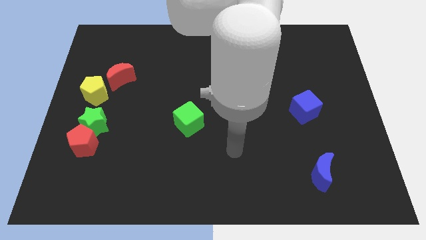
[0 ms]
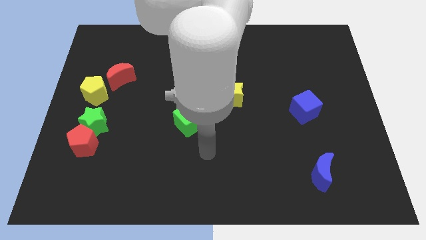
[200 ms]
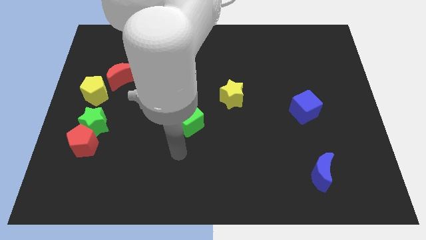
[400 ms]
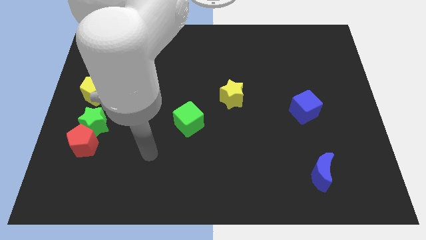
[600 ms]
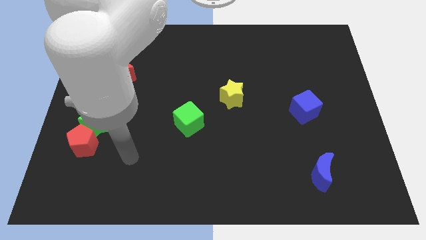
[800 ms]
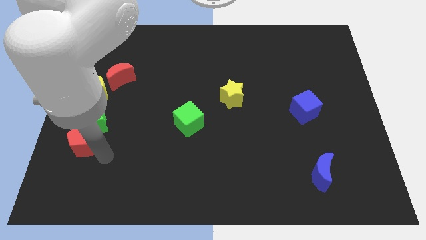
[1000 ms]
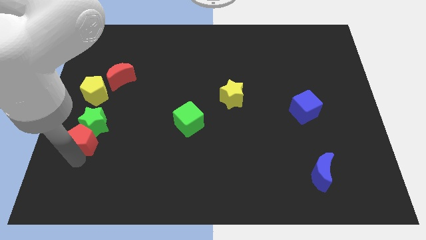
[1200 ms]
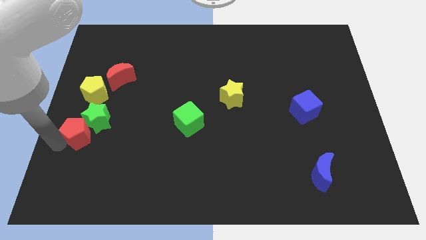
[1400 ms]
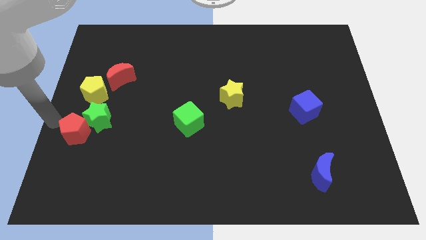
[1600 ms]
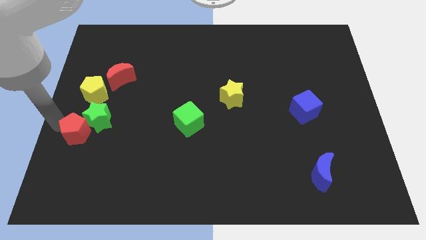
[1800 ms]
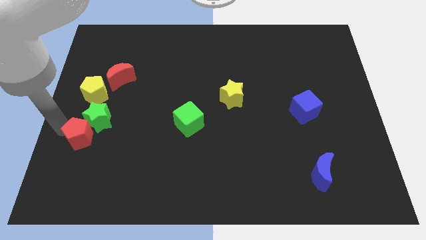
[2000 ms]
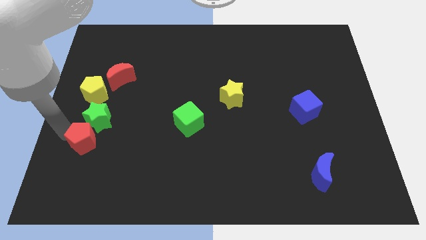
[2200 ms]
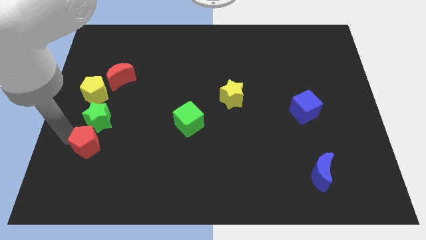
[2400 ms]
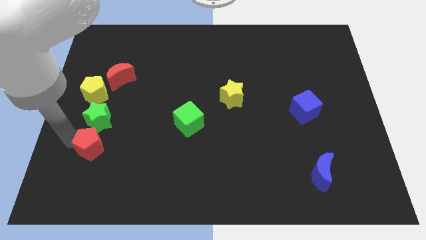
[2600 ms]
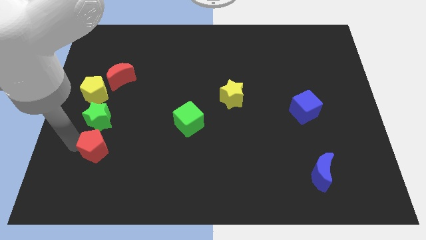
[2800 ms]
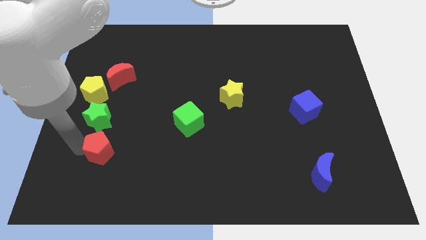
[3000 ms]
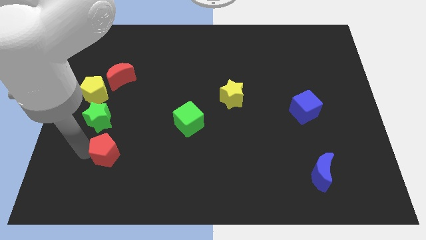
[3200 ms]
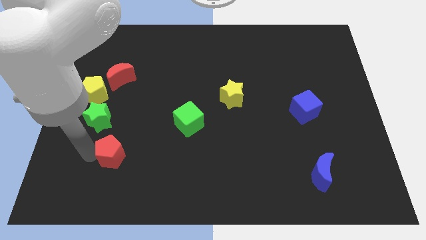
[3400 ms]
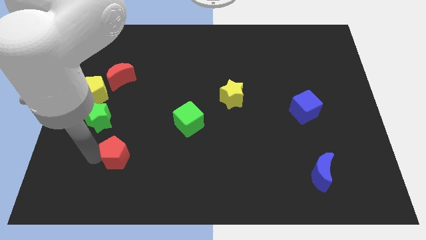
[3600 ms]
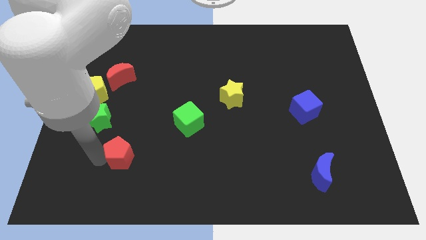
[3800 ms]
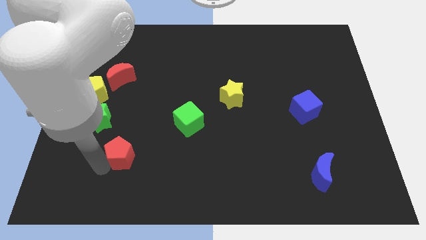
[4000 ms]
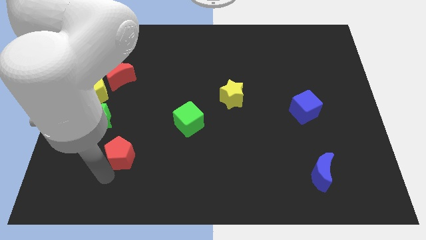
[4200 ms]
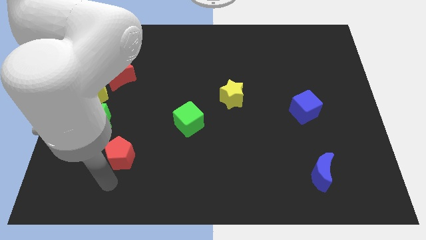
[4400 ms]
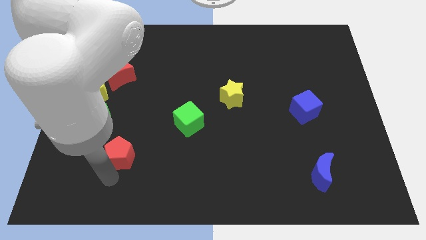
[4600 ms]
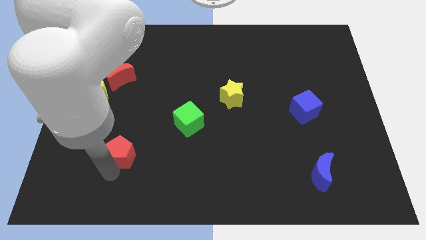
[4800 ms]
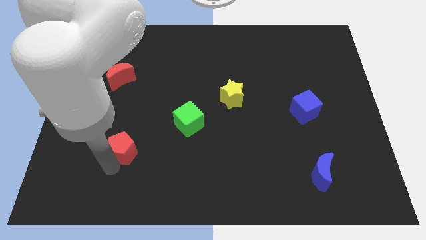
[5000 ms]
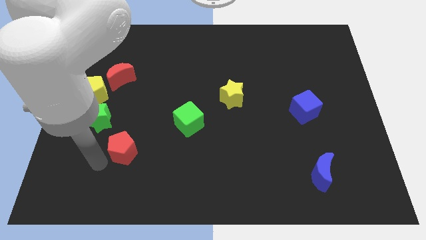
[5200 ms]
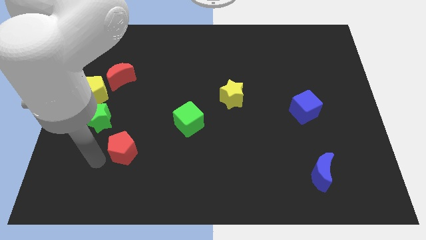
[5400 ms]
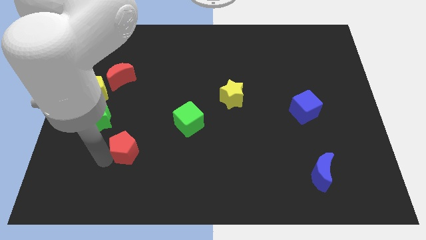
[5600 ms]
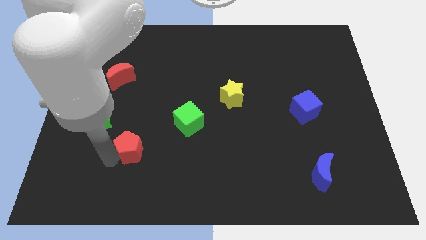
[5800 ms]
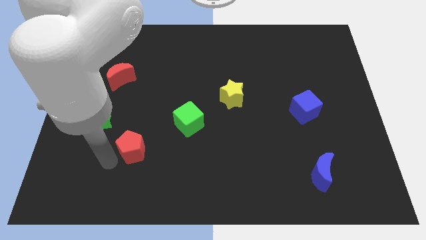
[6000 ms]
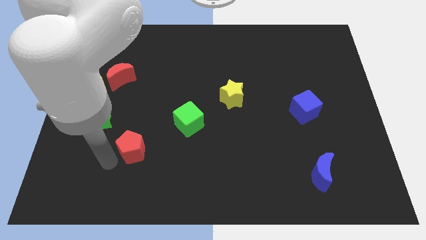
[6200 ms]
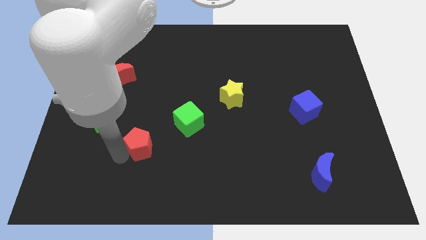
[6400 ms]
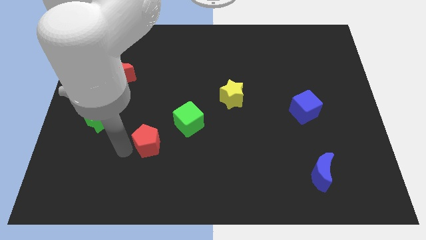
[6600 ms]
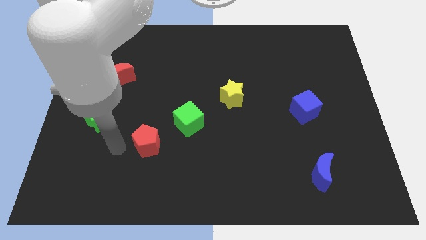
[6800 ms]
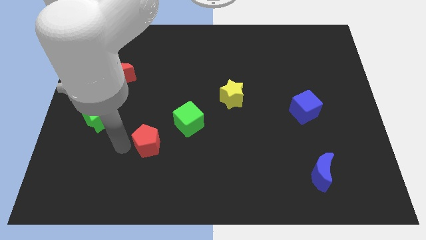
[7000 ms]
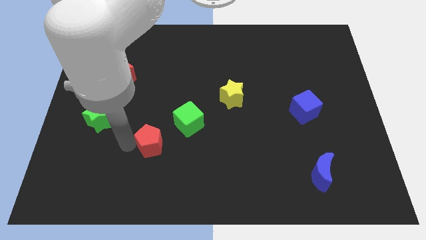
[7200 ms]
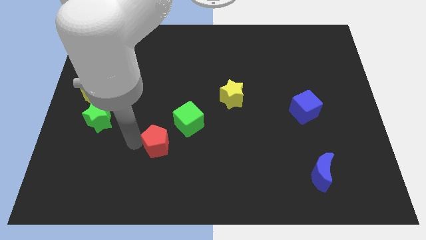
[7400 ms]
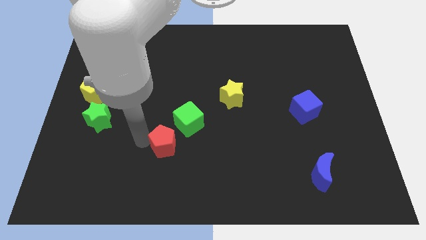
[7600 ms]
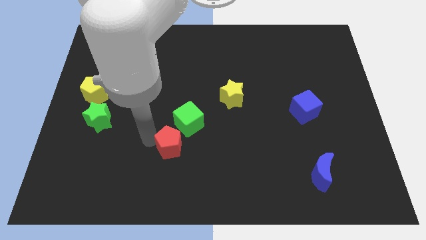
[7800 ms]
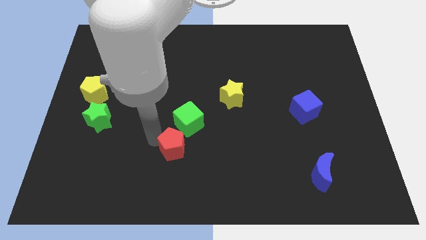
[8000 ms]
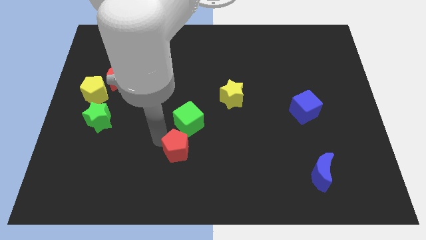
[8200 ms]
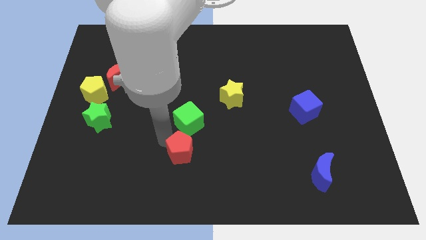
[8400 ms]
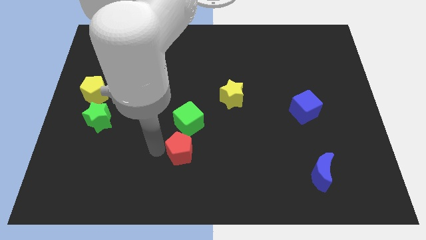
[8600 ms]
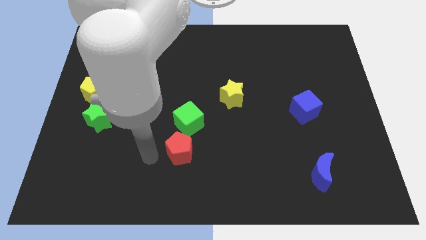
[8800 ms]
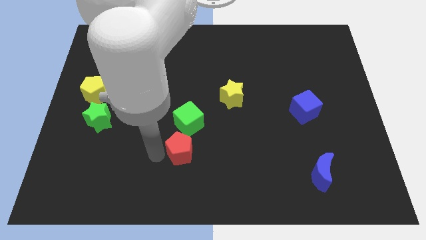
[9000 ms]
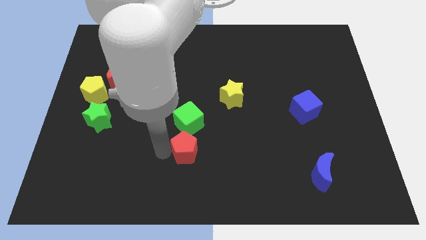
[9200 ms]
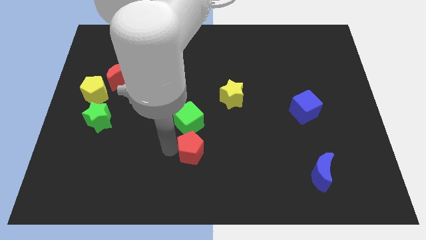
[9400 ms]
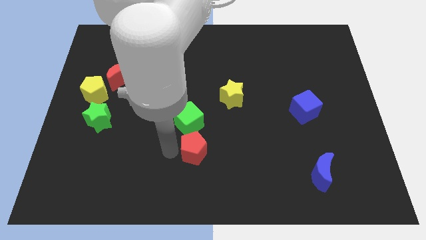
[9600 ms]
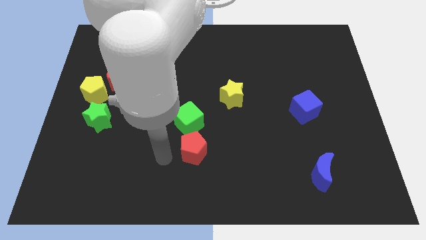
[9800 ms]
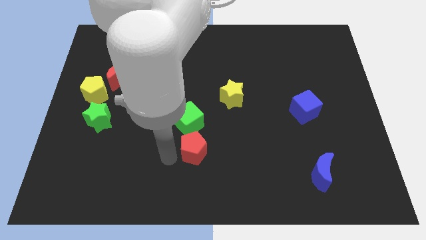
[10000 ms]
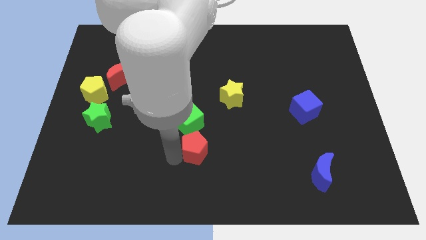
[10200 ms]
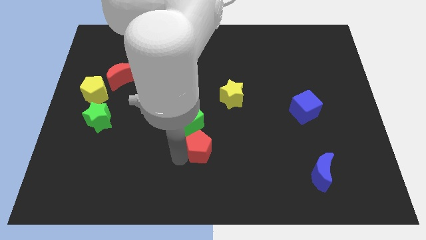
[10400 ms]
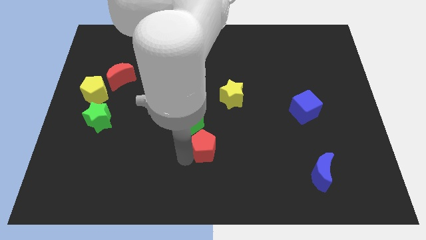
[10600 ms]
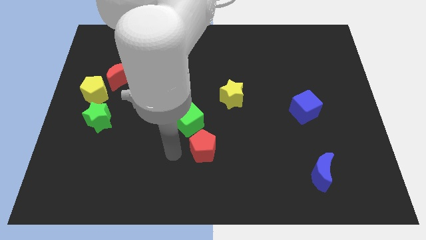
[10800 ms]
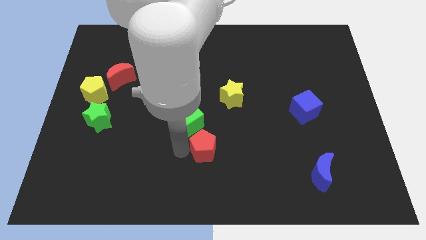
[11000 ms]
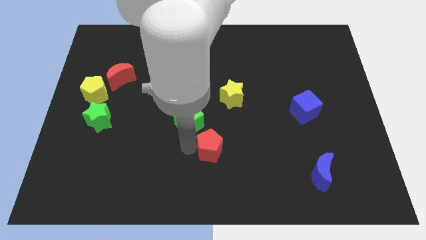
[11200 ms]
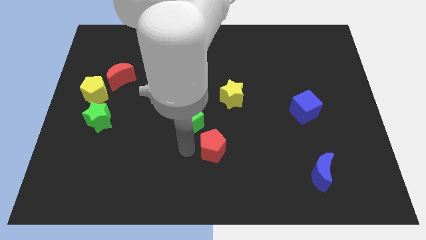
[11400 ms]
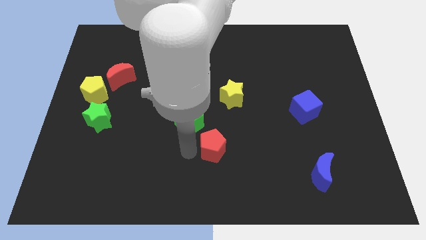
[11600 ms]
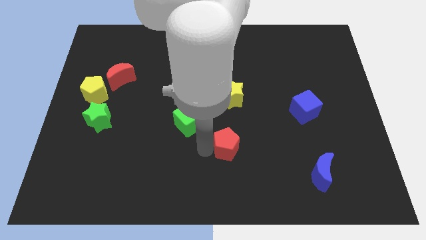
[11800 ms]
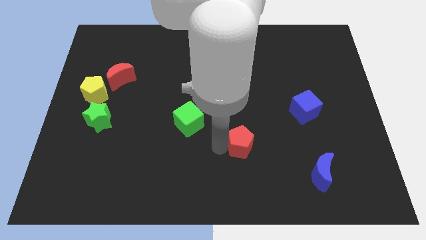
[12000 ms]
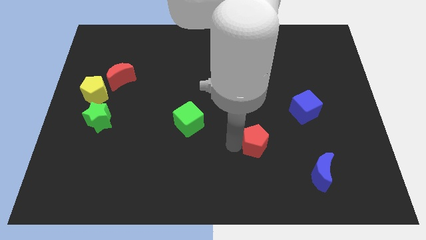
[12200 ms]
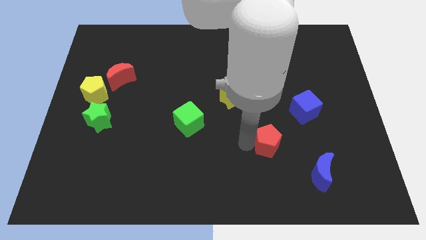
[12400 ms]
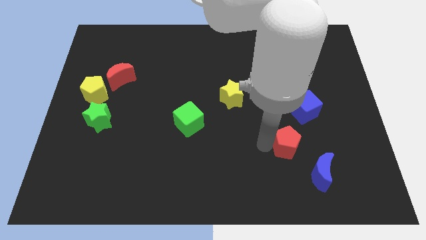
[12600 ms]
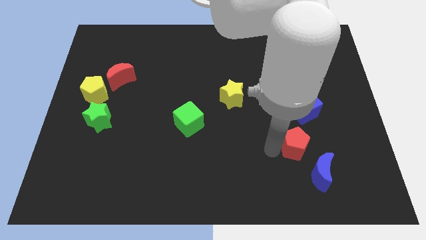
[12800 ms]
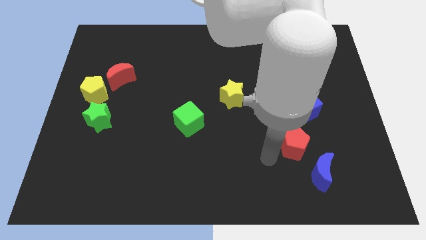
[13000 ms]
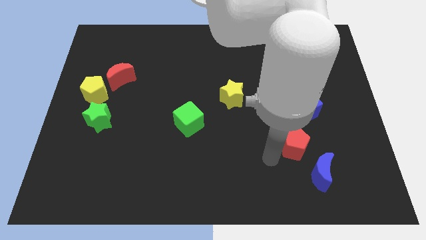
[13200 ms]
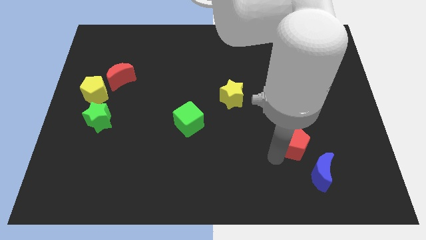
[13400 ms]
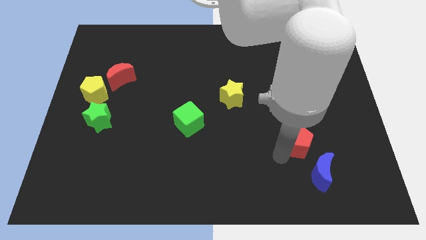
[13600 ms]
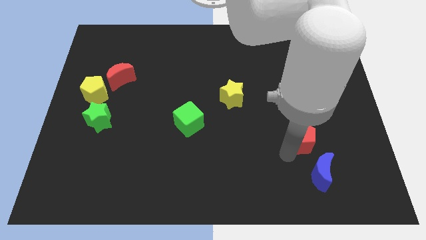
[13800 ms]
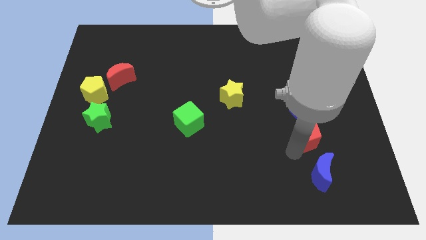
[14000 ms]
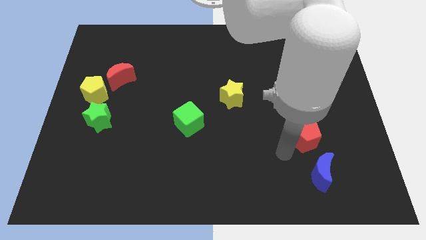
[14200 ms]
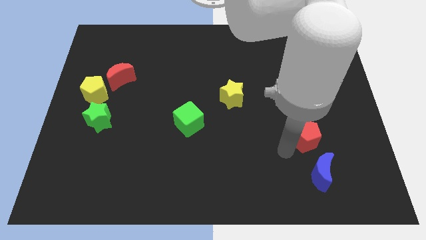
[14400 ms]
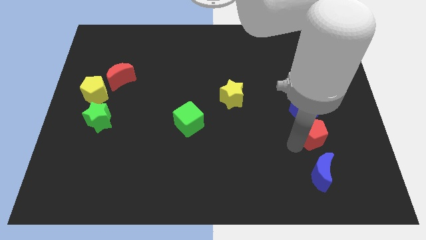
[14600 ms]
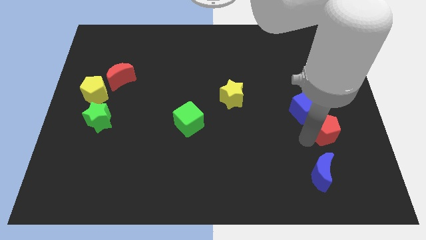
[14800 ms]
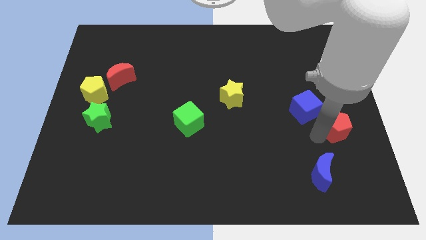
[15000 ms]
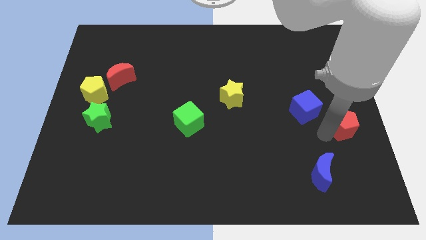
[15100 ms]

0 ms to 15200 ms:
slide the red pentagon to the right side of the board
